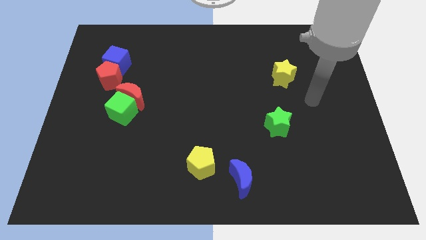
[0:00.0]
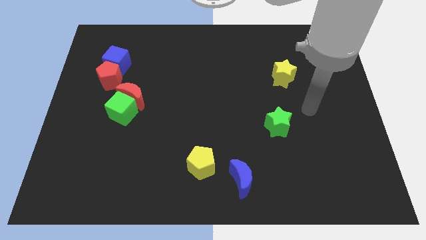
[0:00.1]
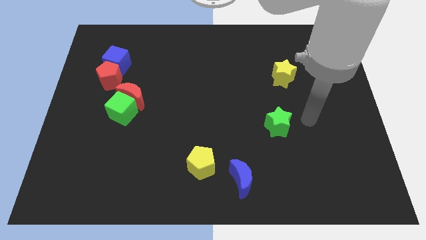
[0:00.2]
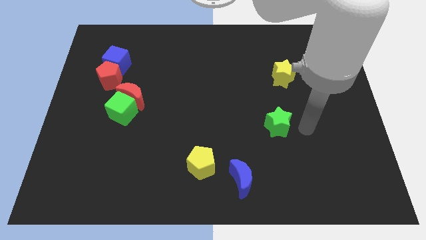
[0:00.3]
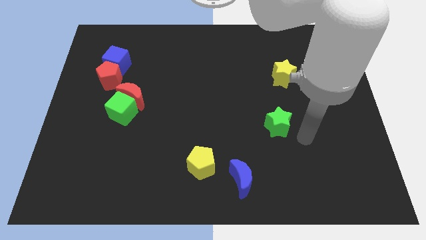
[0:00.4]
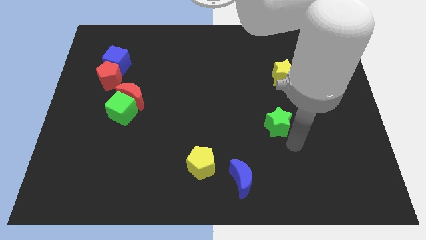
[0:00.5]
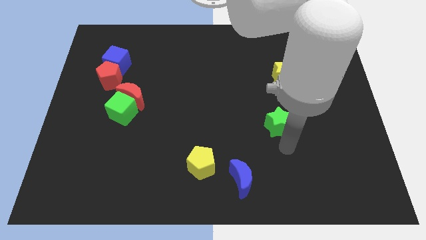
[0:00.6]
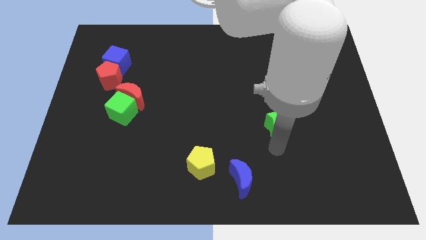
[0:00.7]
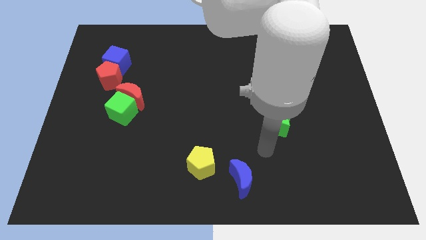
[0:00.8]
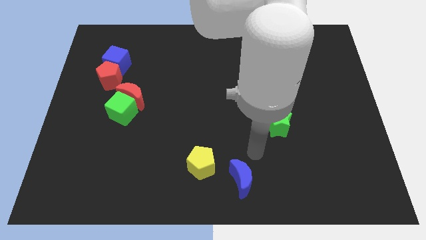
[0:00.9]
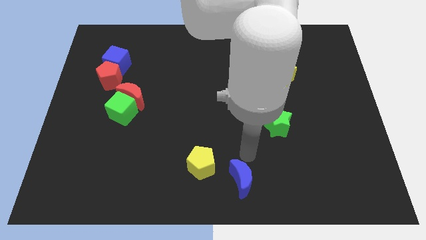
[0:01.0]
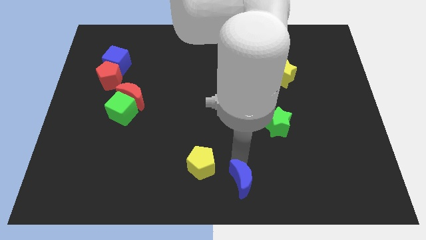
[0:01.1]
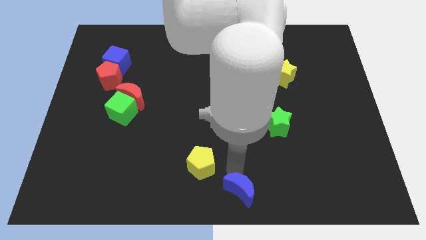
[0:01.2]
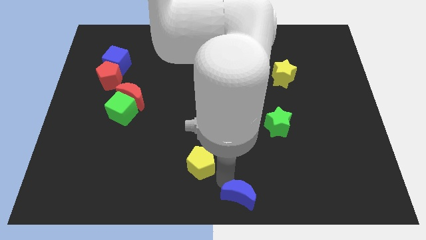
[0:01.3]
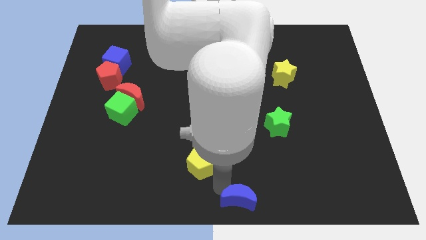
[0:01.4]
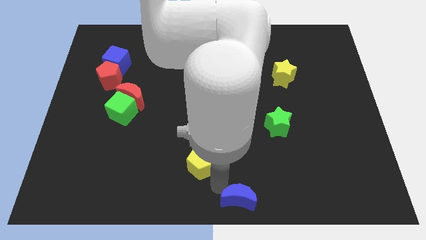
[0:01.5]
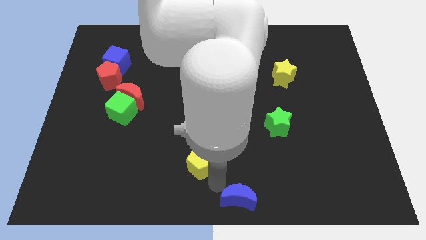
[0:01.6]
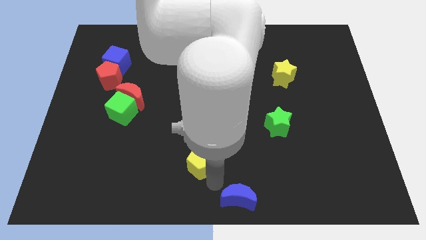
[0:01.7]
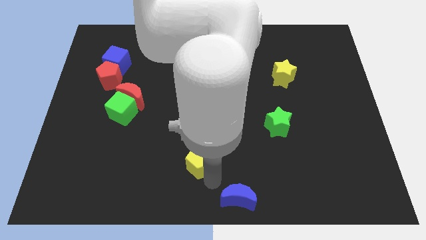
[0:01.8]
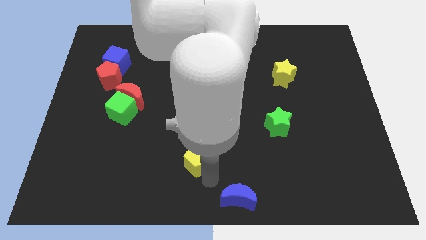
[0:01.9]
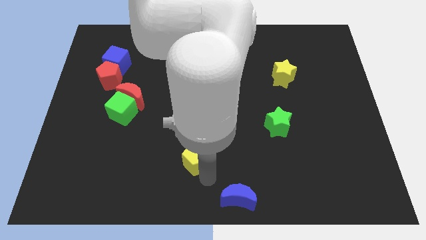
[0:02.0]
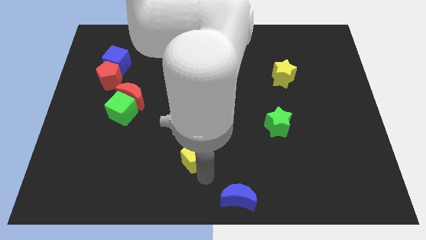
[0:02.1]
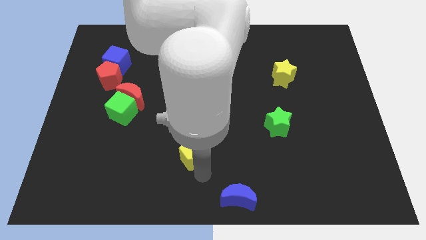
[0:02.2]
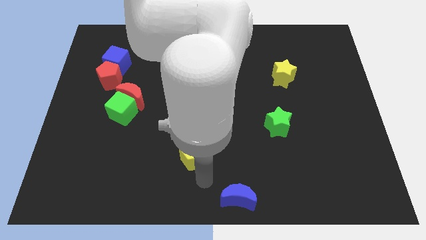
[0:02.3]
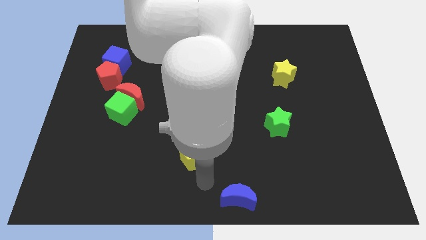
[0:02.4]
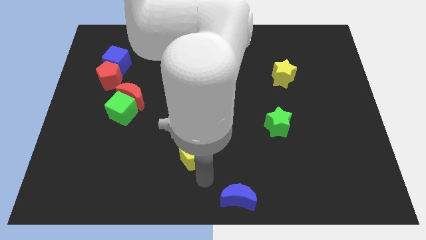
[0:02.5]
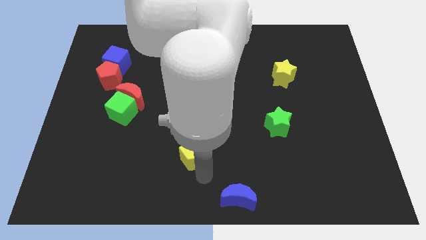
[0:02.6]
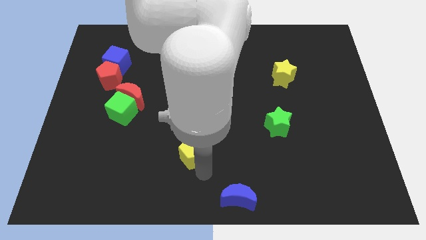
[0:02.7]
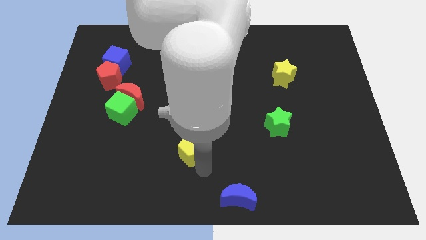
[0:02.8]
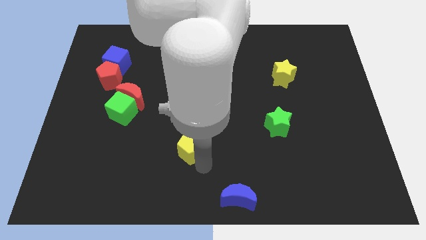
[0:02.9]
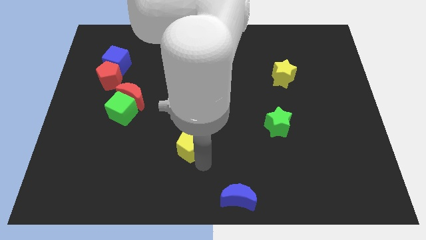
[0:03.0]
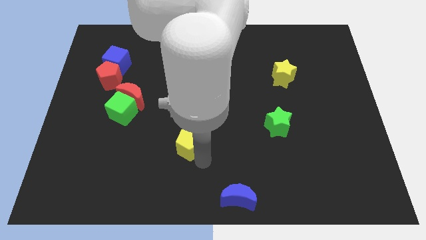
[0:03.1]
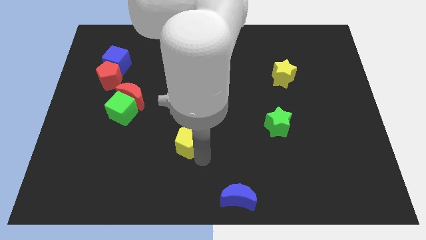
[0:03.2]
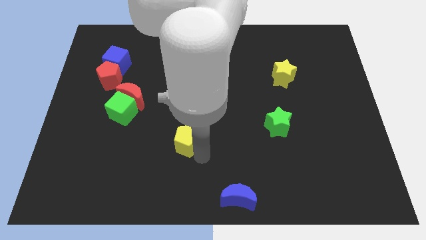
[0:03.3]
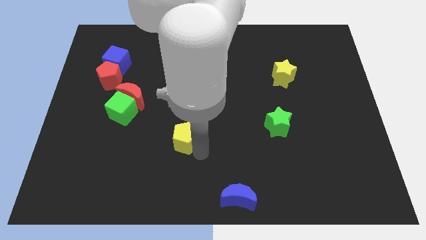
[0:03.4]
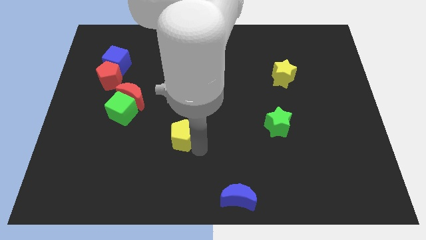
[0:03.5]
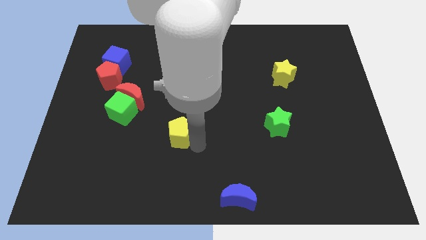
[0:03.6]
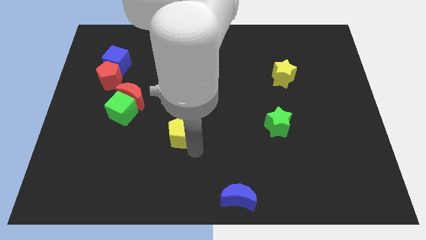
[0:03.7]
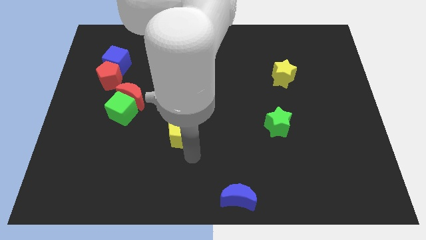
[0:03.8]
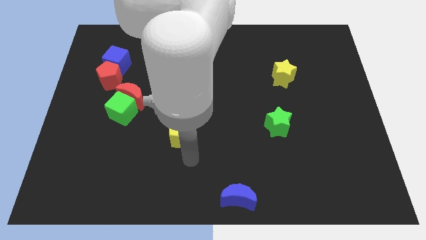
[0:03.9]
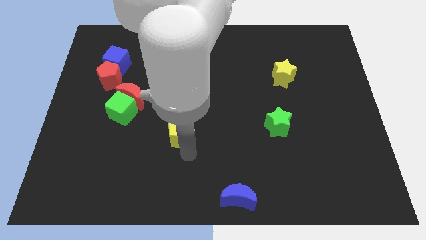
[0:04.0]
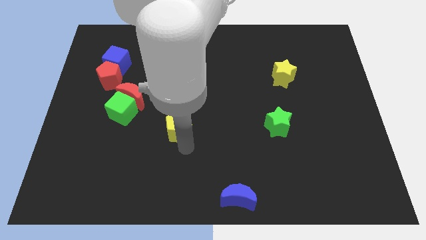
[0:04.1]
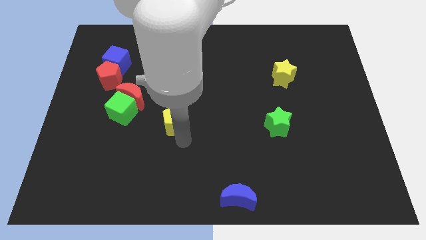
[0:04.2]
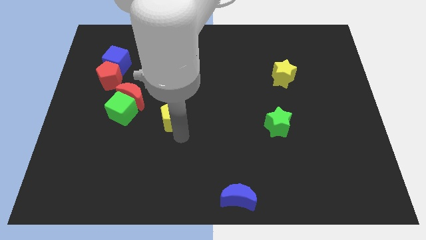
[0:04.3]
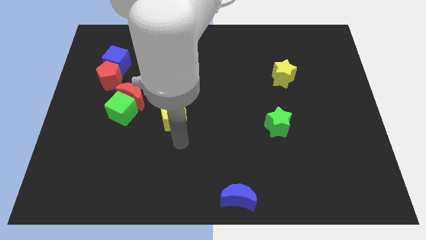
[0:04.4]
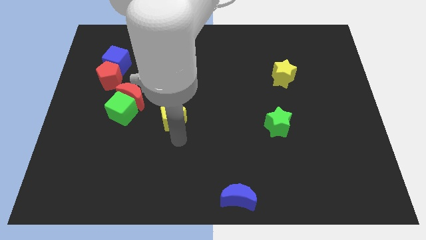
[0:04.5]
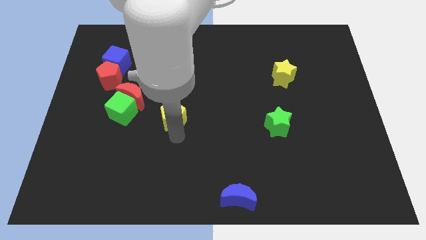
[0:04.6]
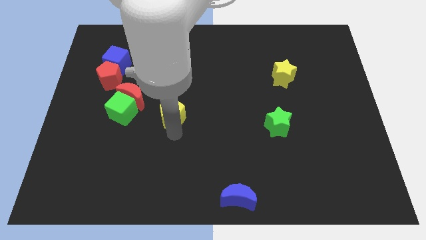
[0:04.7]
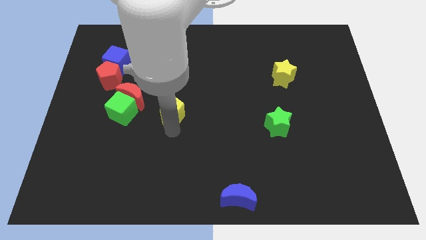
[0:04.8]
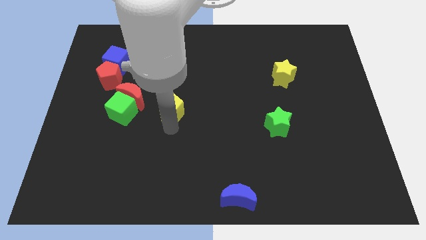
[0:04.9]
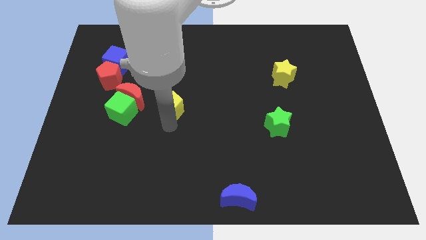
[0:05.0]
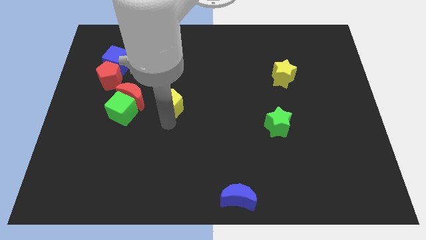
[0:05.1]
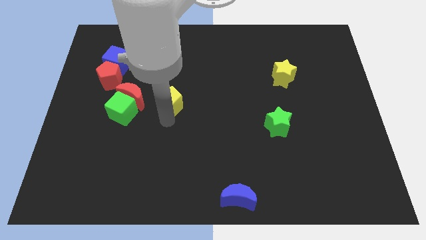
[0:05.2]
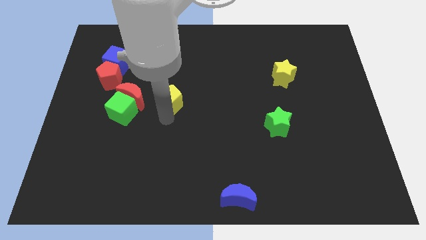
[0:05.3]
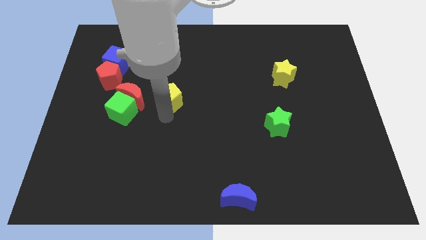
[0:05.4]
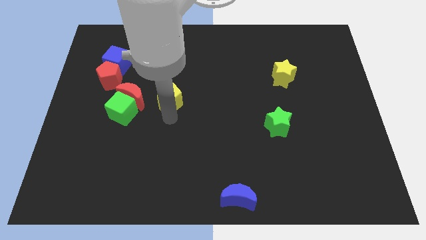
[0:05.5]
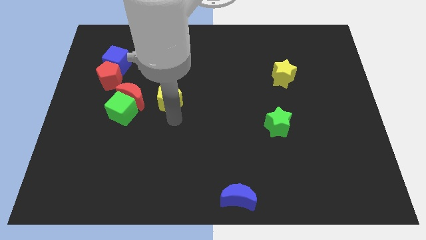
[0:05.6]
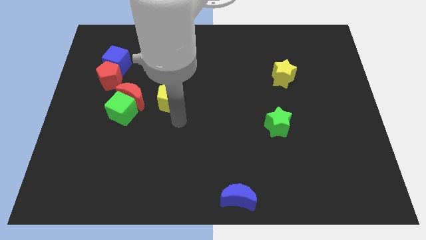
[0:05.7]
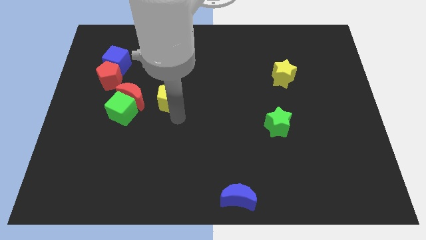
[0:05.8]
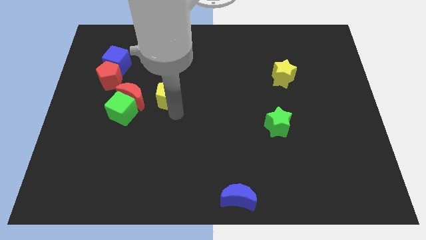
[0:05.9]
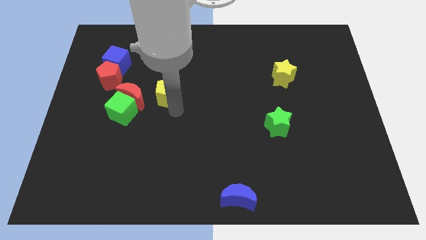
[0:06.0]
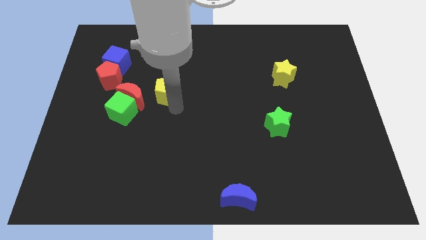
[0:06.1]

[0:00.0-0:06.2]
slide the yellow pentagon to the top right side of the red moon
